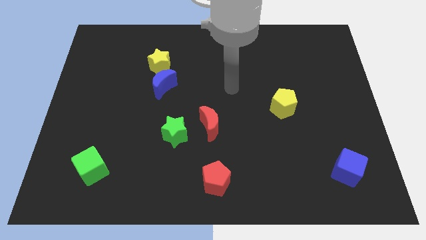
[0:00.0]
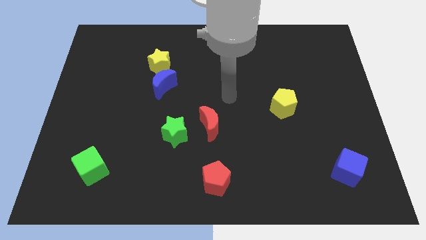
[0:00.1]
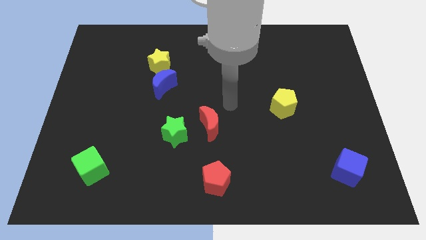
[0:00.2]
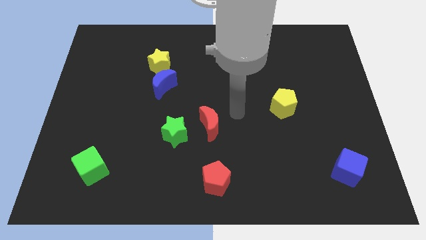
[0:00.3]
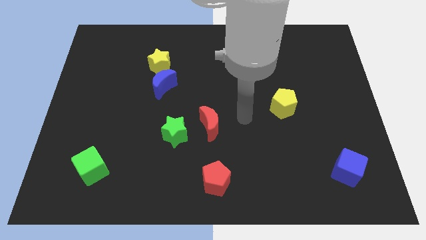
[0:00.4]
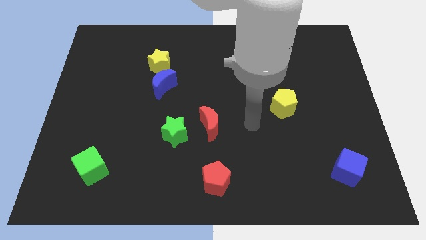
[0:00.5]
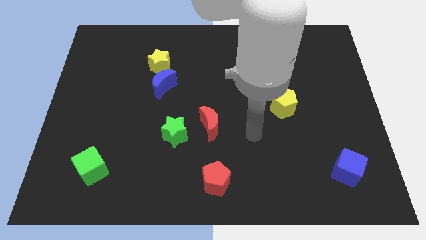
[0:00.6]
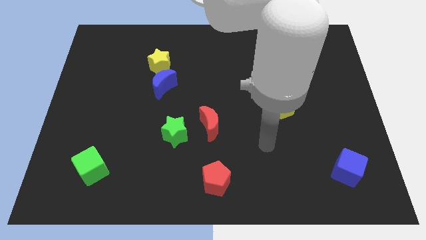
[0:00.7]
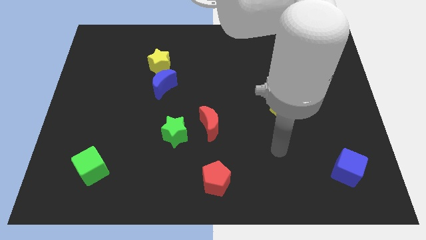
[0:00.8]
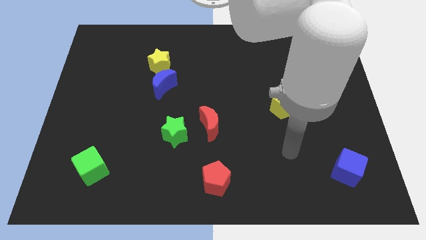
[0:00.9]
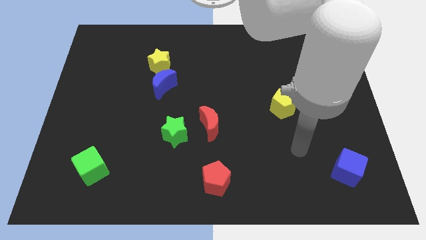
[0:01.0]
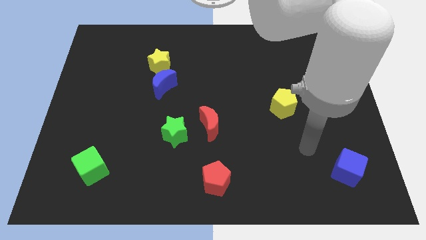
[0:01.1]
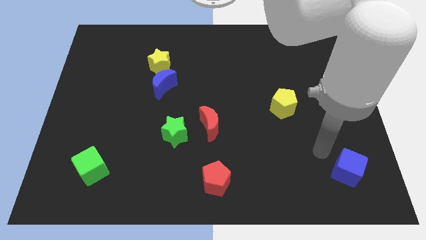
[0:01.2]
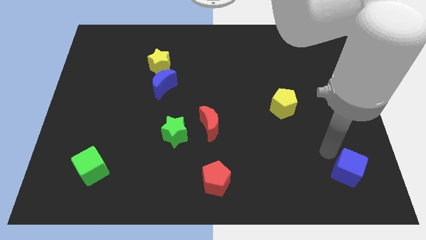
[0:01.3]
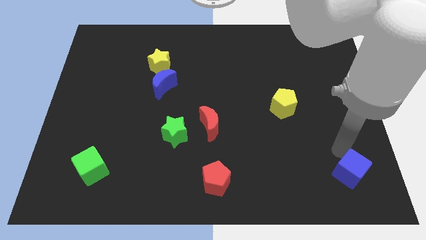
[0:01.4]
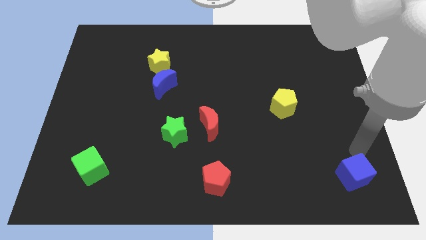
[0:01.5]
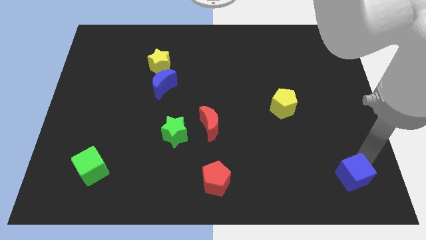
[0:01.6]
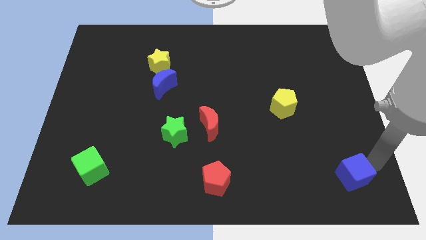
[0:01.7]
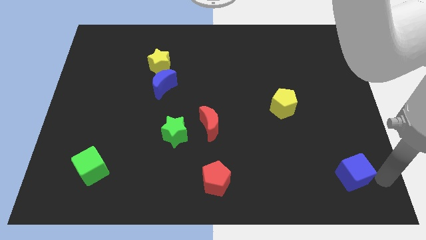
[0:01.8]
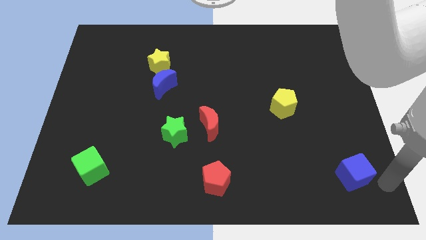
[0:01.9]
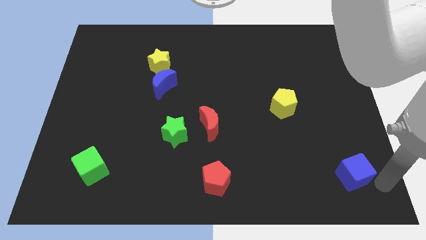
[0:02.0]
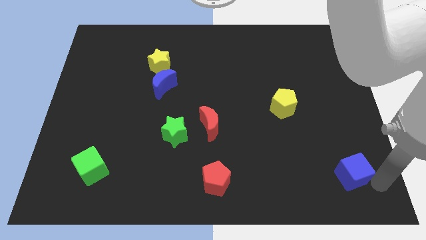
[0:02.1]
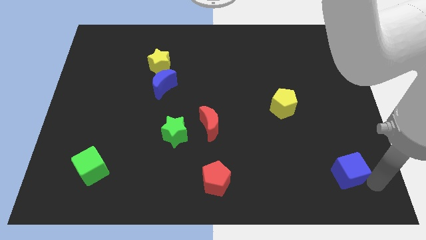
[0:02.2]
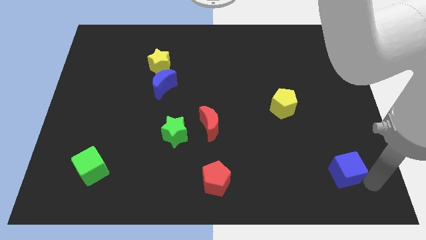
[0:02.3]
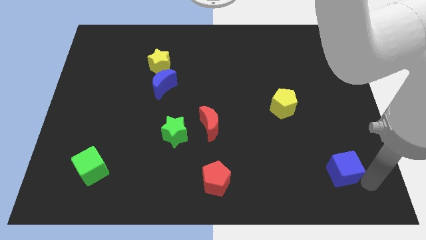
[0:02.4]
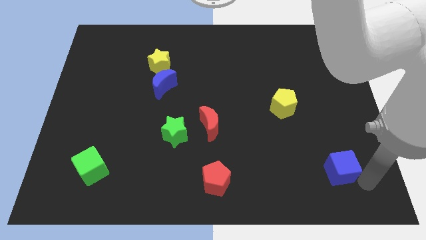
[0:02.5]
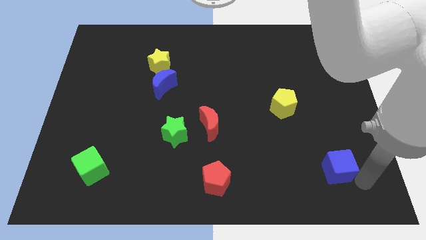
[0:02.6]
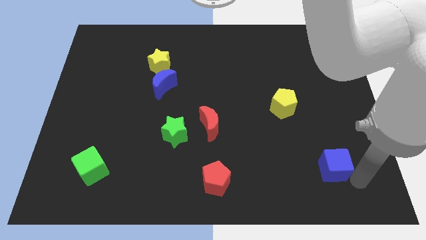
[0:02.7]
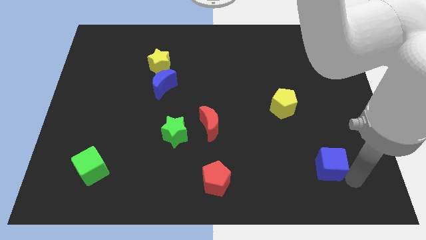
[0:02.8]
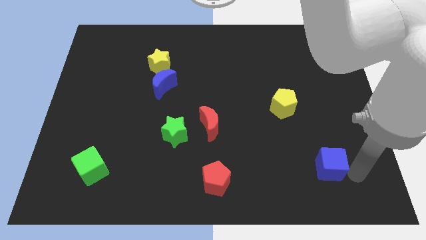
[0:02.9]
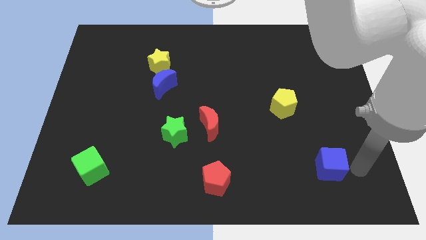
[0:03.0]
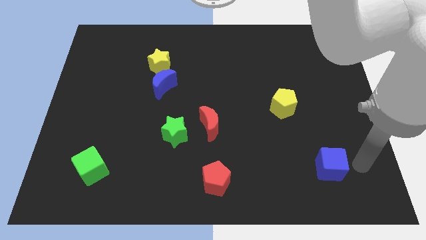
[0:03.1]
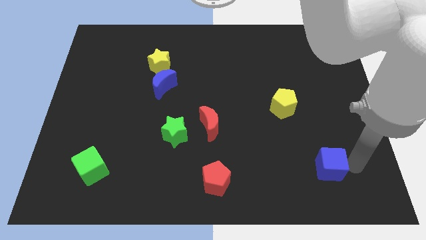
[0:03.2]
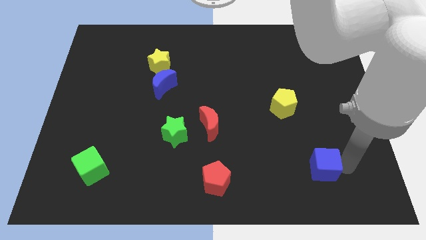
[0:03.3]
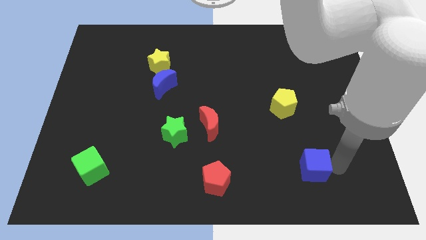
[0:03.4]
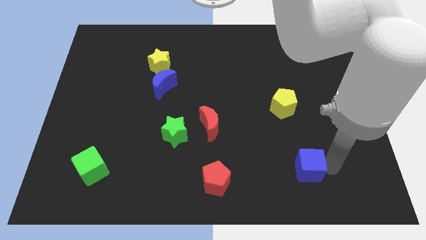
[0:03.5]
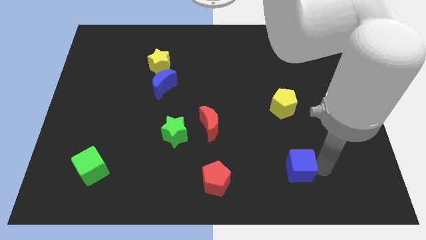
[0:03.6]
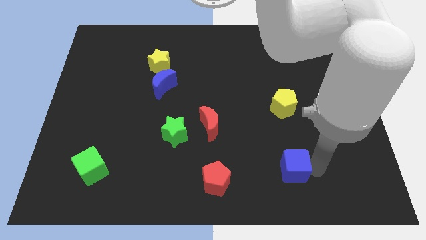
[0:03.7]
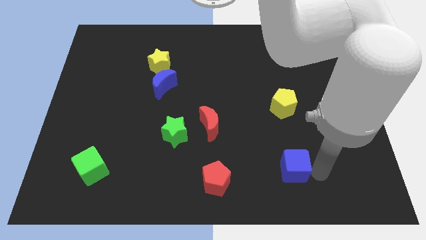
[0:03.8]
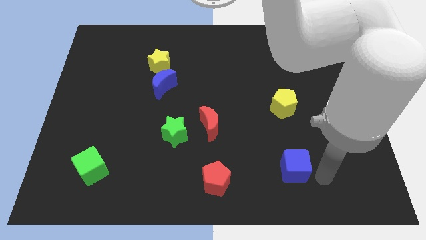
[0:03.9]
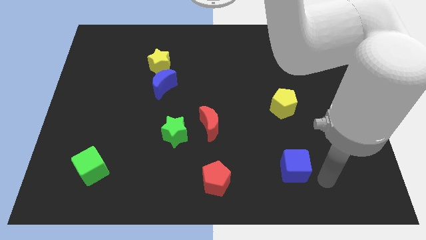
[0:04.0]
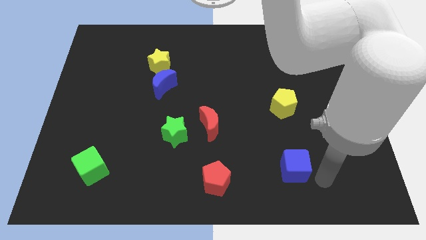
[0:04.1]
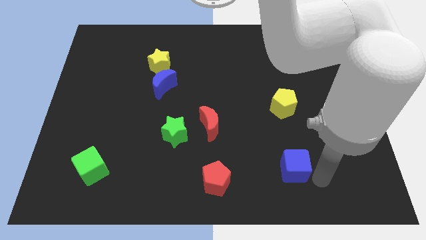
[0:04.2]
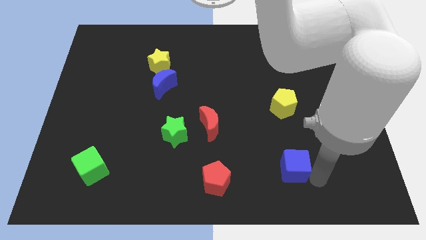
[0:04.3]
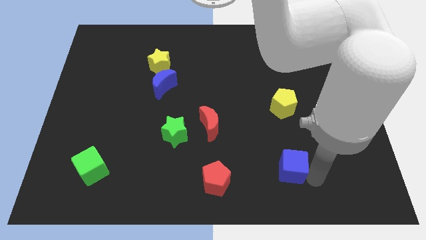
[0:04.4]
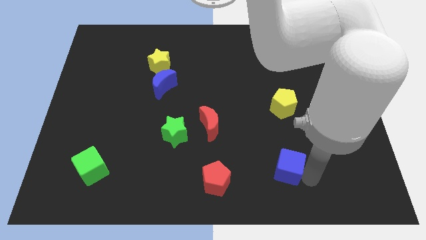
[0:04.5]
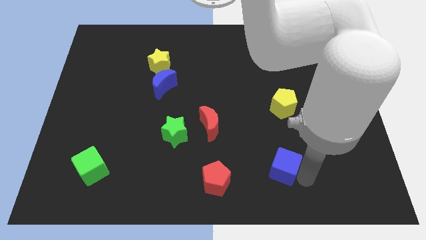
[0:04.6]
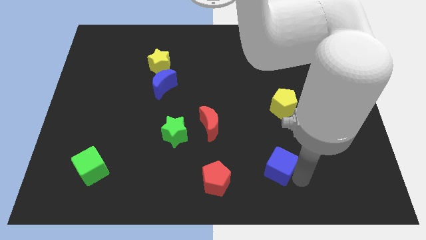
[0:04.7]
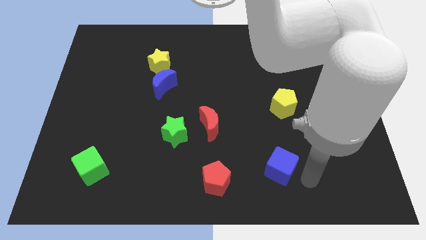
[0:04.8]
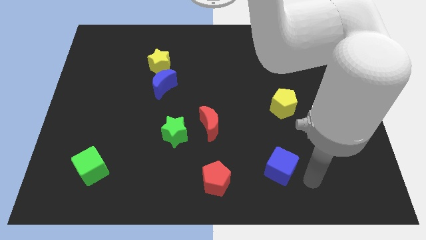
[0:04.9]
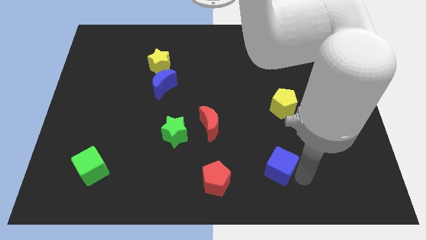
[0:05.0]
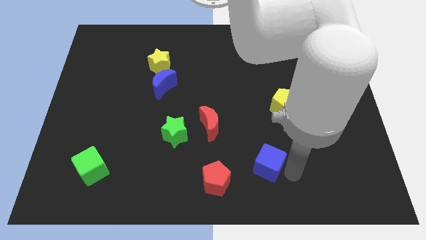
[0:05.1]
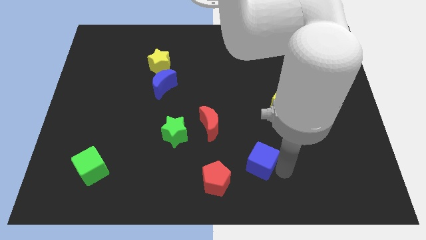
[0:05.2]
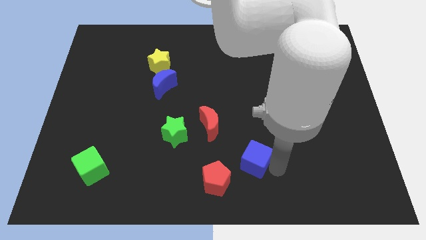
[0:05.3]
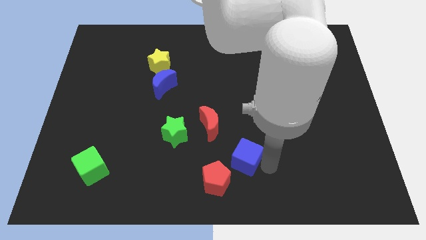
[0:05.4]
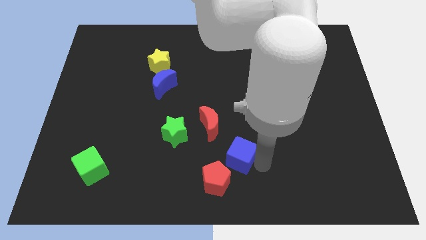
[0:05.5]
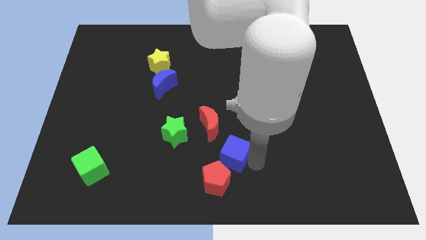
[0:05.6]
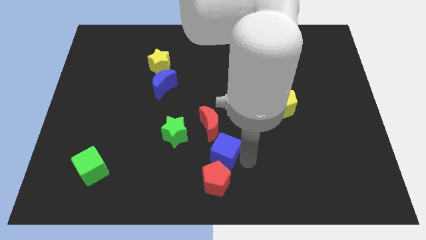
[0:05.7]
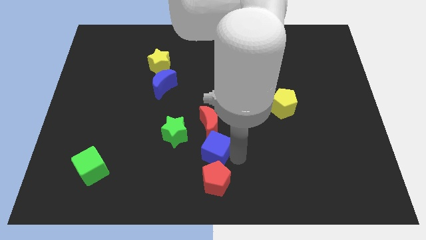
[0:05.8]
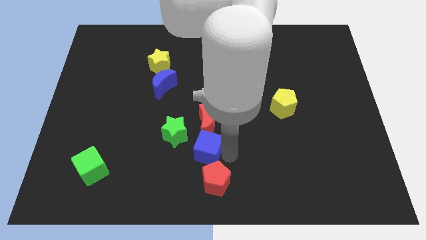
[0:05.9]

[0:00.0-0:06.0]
put the blue cube to the bottom left of the red moon

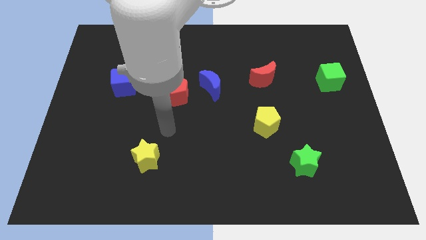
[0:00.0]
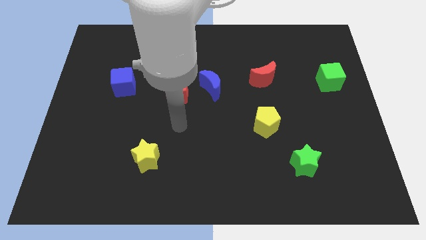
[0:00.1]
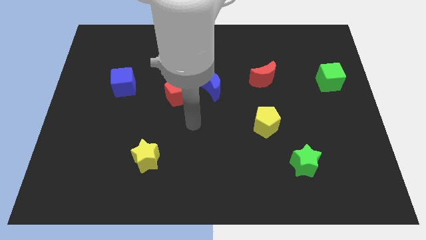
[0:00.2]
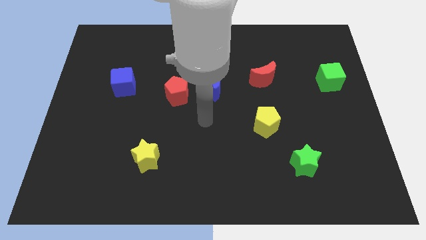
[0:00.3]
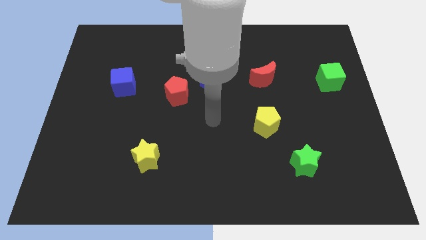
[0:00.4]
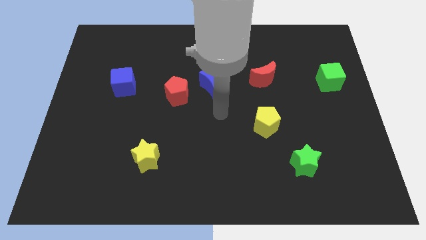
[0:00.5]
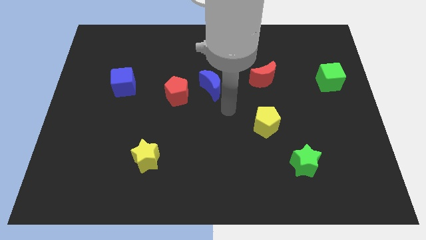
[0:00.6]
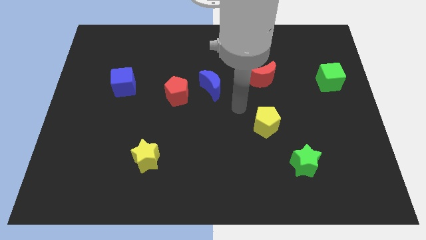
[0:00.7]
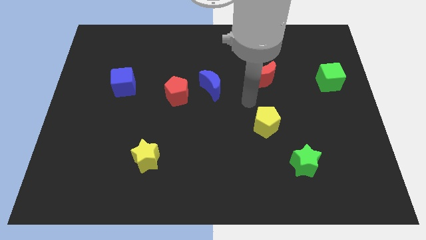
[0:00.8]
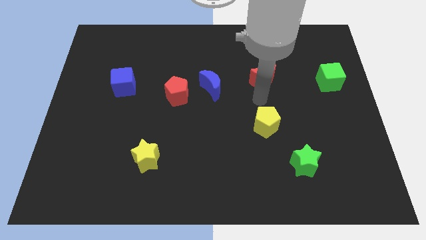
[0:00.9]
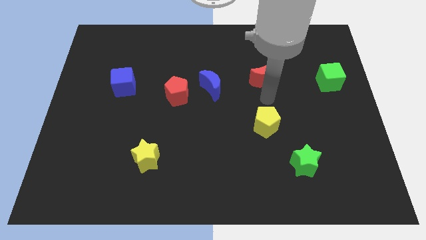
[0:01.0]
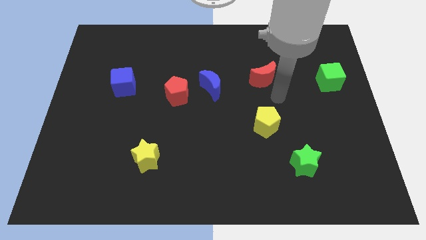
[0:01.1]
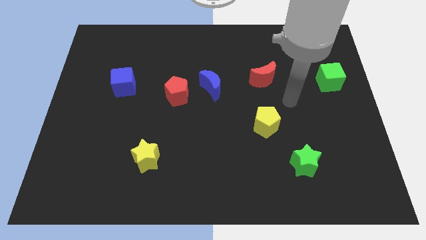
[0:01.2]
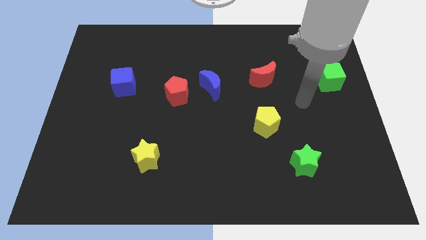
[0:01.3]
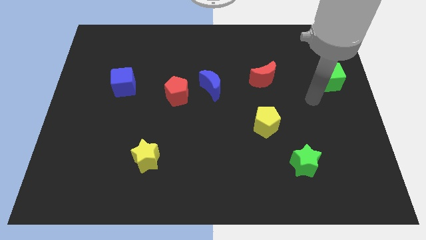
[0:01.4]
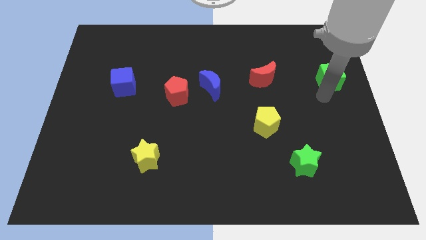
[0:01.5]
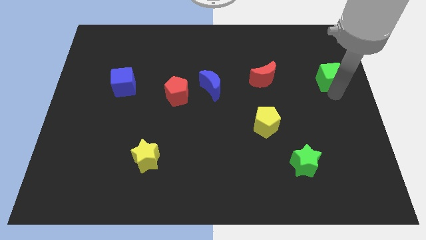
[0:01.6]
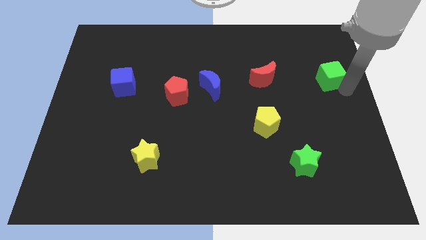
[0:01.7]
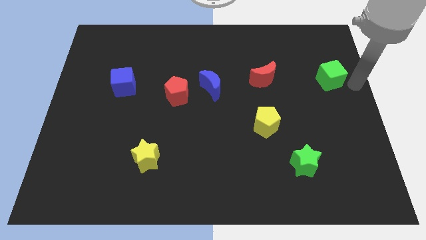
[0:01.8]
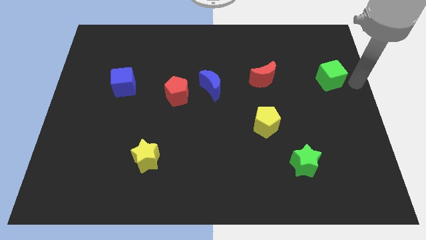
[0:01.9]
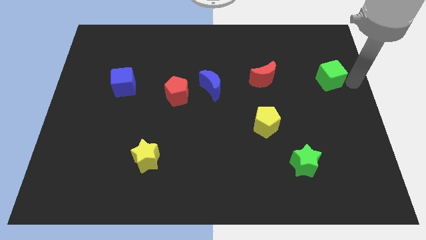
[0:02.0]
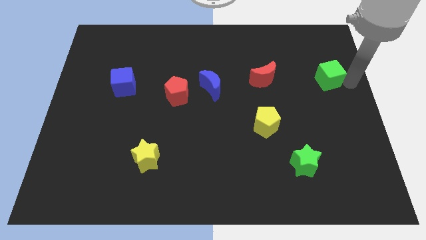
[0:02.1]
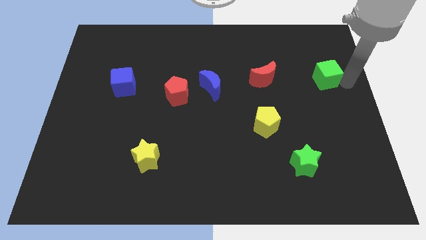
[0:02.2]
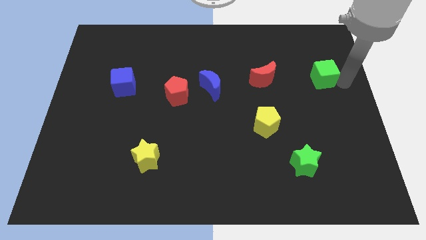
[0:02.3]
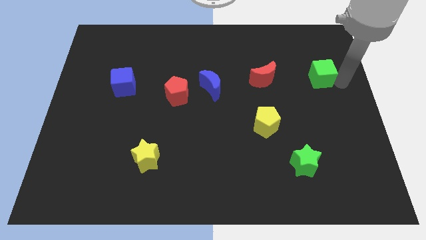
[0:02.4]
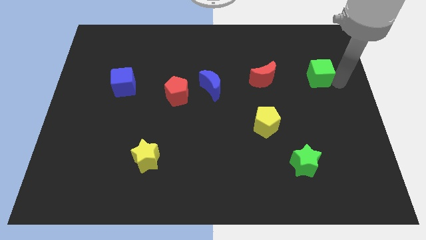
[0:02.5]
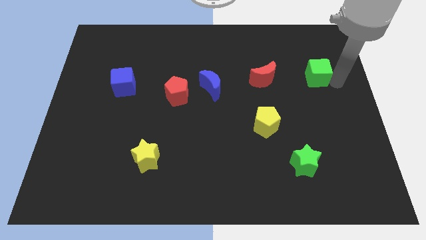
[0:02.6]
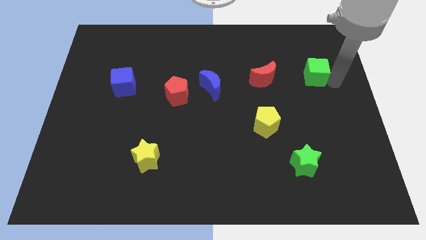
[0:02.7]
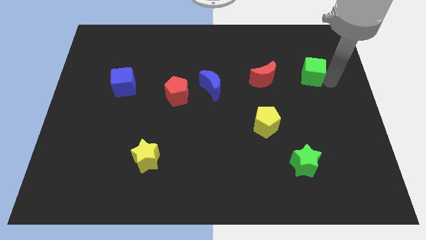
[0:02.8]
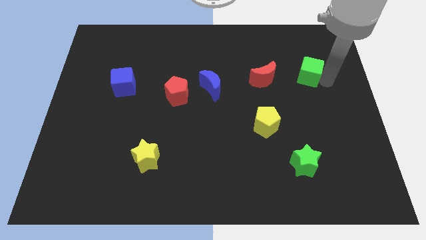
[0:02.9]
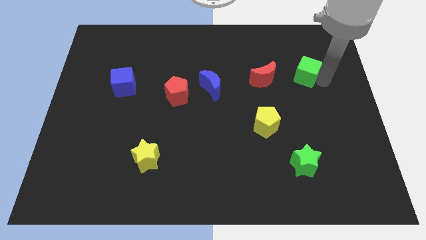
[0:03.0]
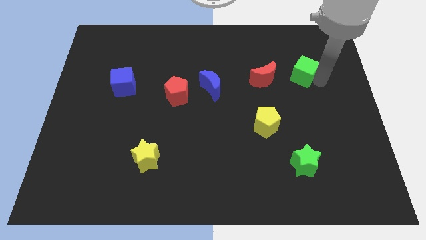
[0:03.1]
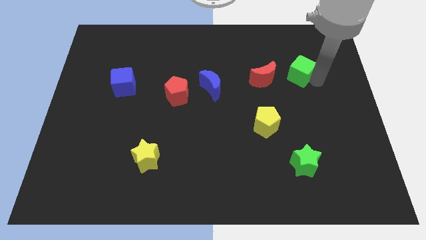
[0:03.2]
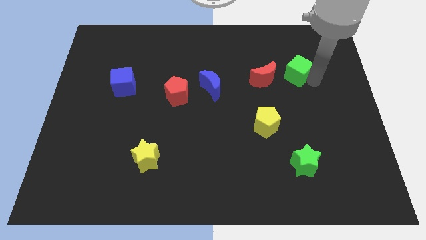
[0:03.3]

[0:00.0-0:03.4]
put the green cube diagonally up and to the right of the red moon
